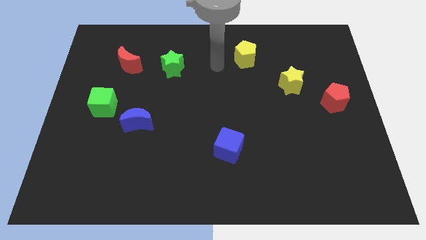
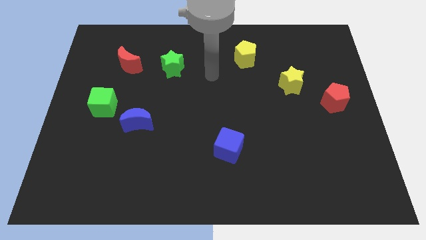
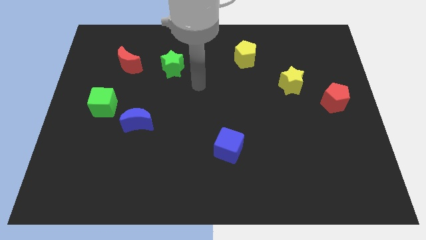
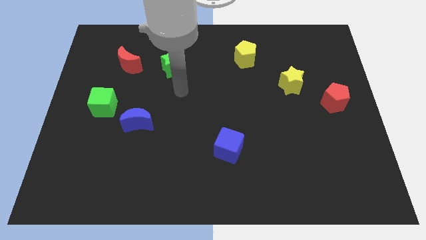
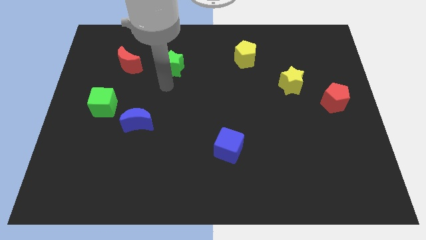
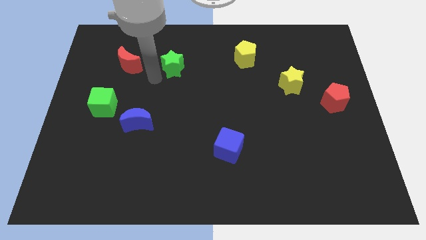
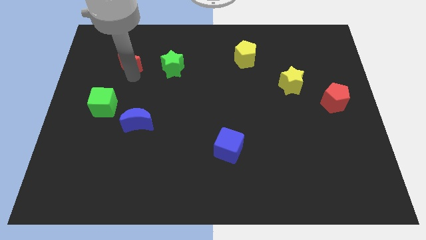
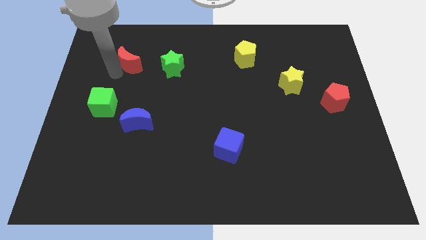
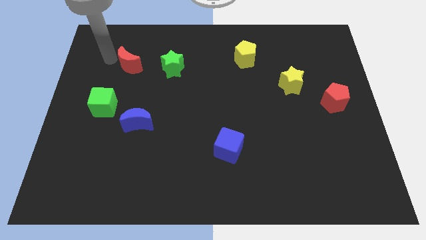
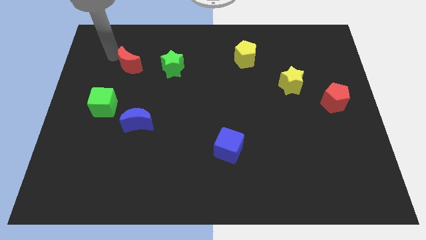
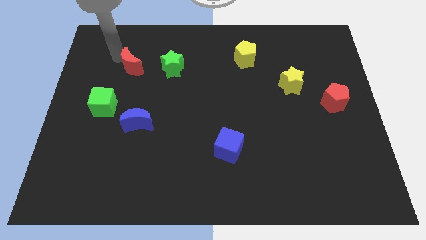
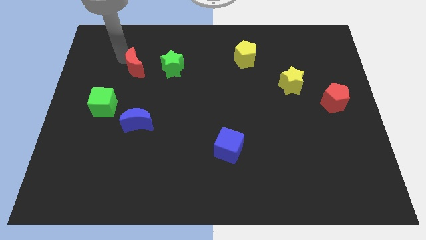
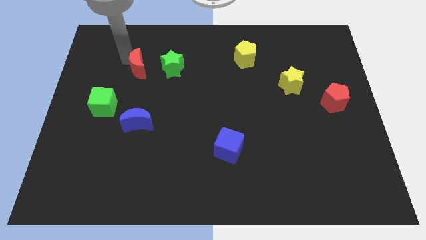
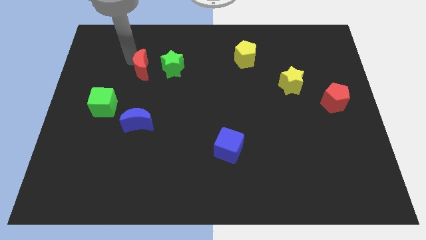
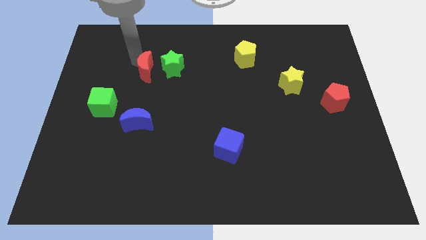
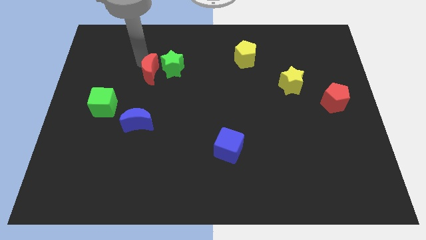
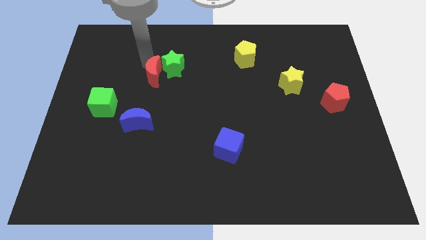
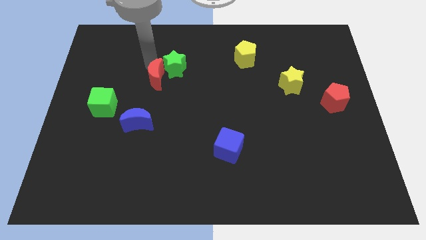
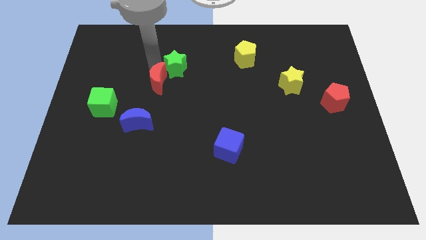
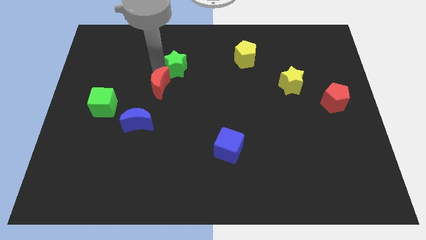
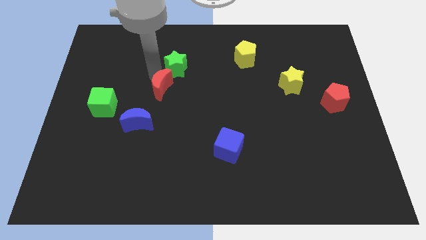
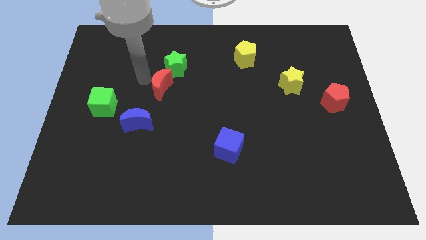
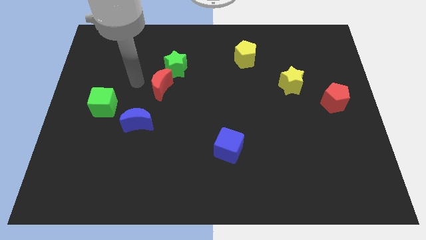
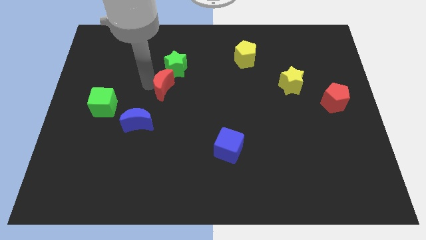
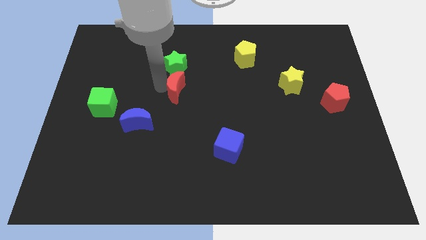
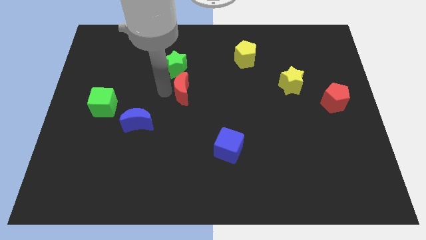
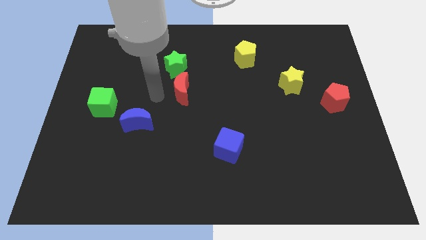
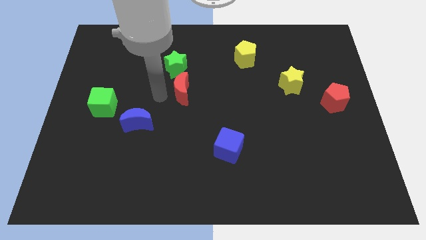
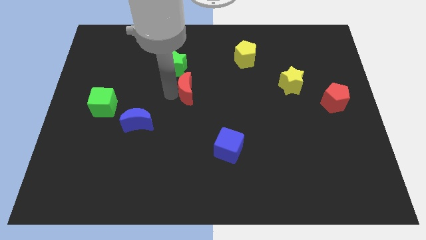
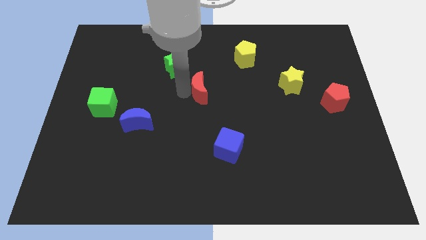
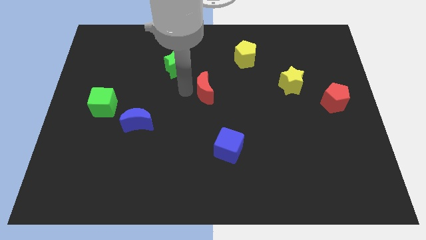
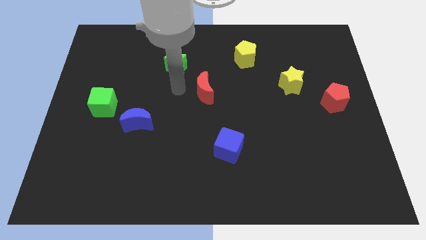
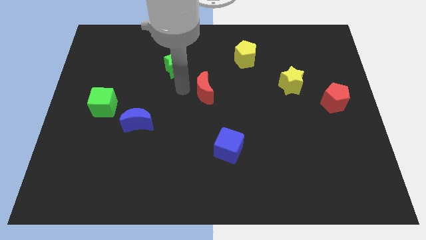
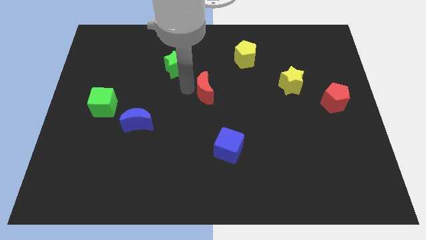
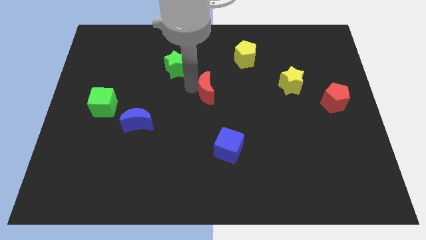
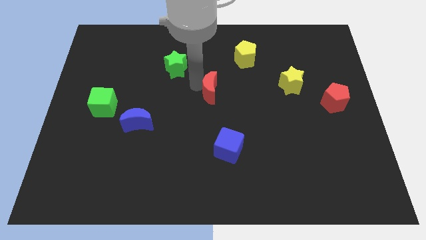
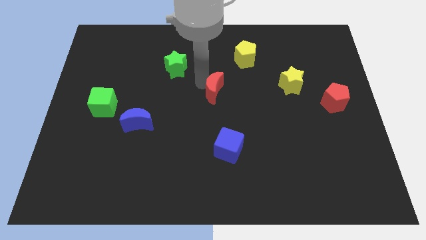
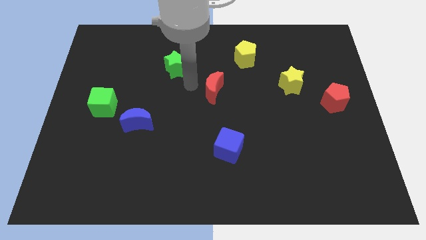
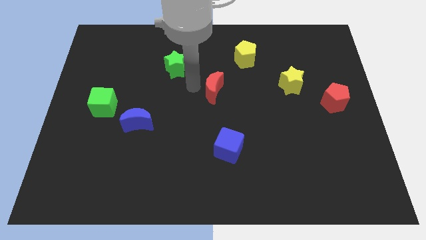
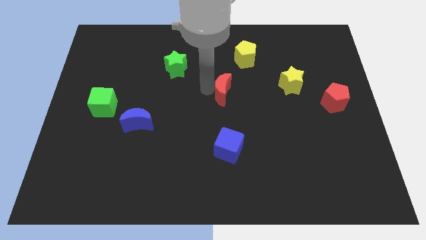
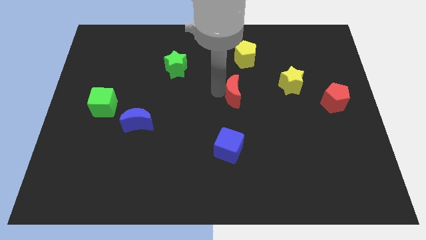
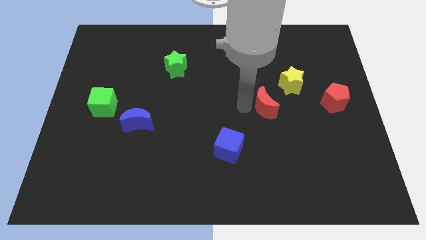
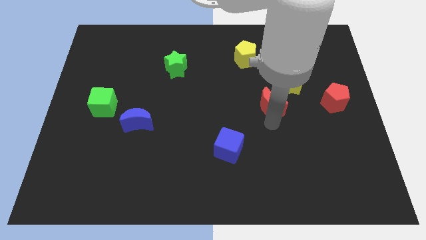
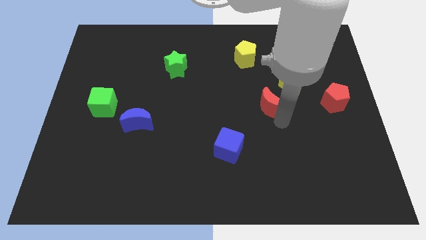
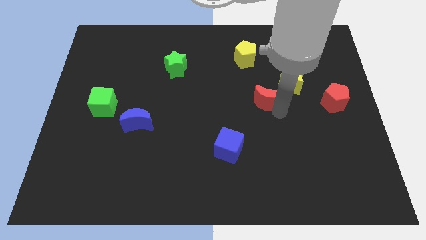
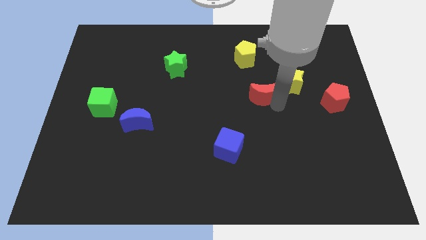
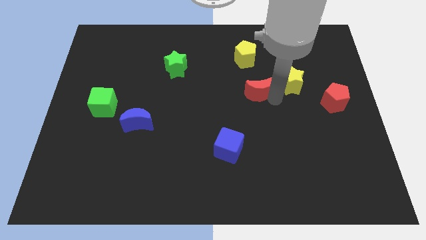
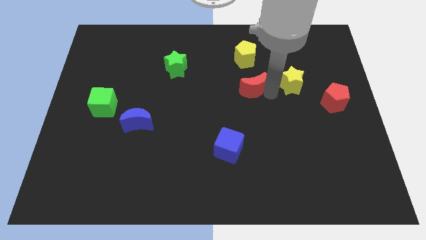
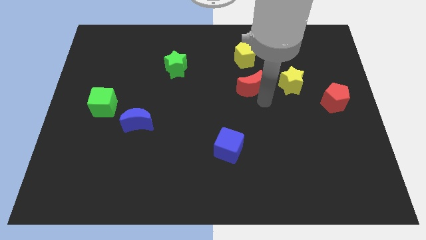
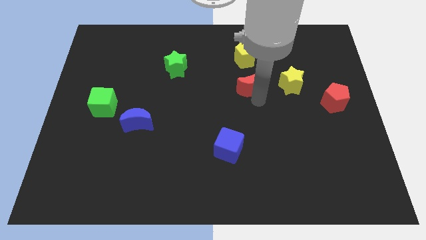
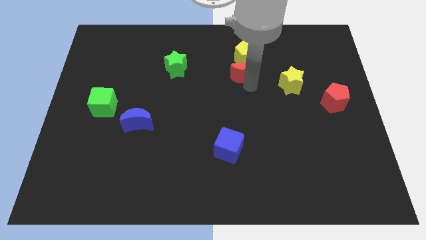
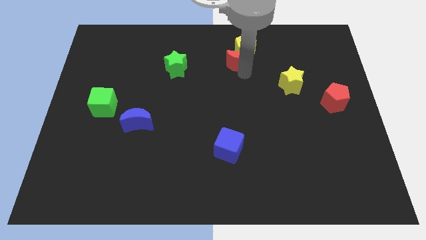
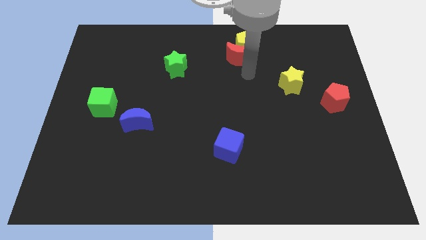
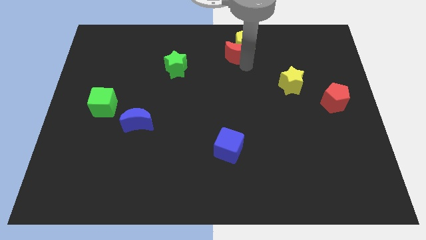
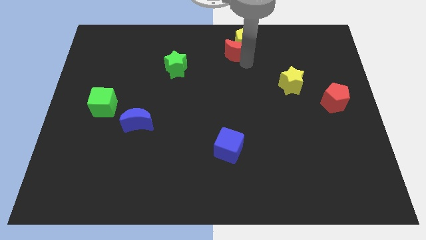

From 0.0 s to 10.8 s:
move the red moon to the top side
